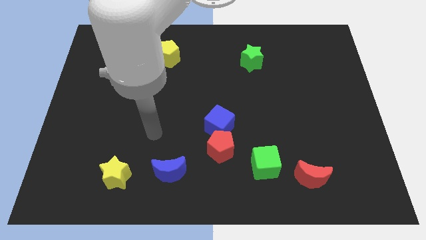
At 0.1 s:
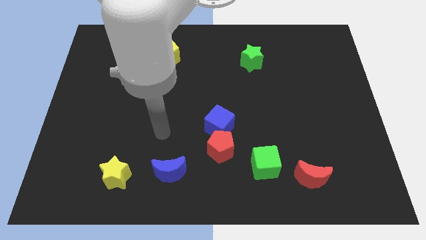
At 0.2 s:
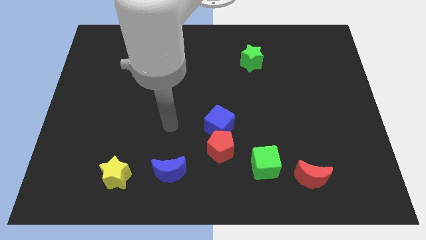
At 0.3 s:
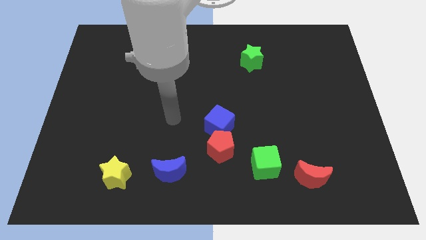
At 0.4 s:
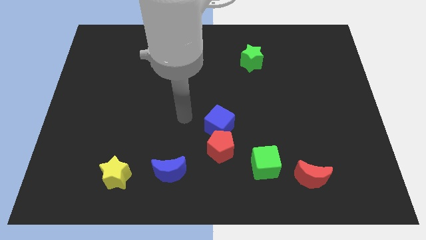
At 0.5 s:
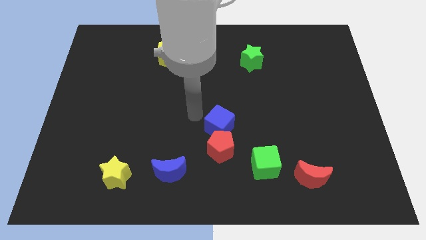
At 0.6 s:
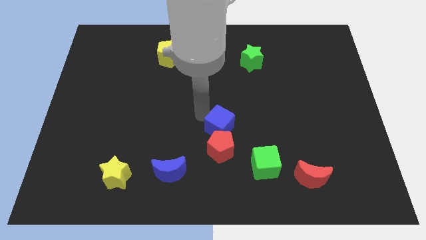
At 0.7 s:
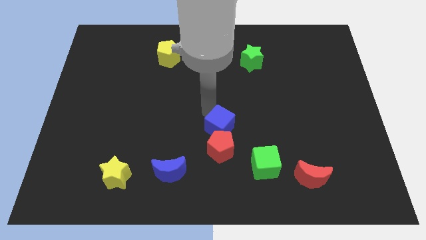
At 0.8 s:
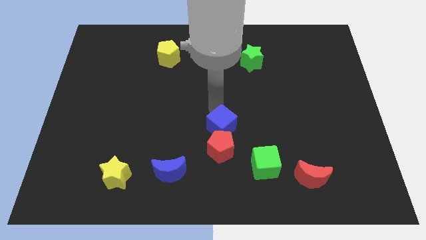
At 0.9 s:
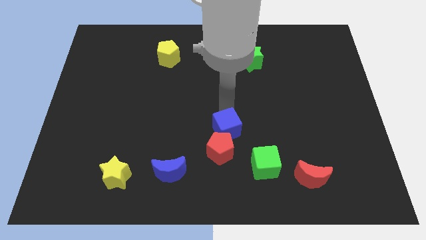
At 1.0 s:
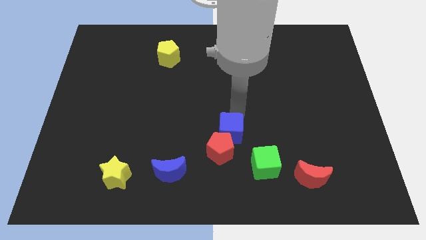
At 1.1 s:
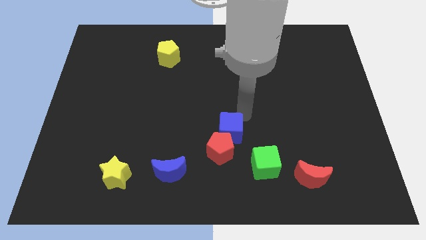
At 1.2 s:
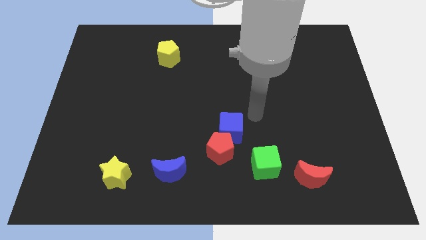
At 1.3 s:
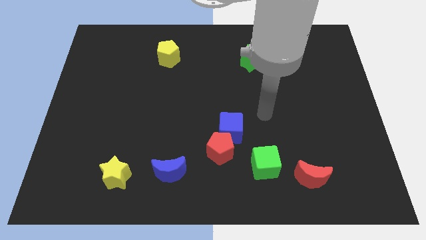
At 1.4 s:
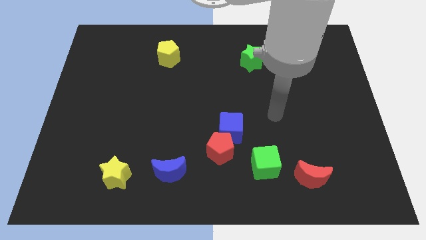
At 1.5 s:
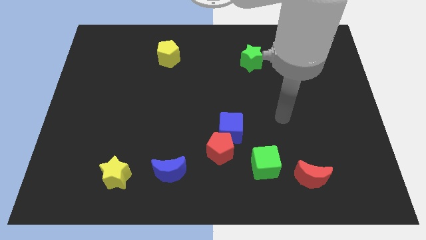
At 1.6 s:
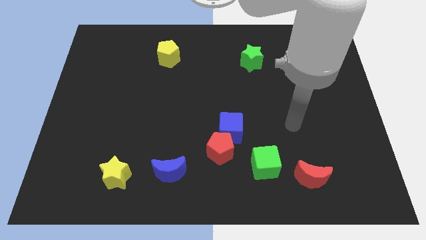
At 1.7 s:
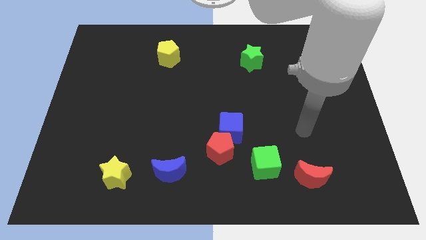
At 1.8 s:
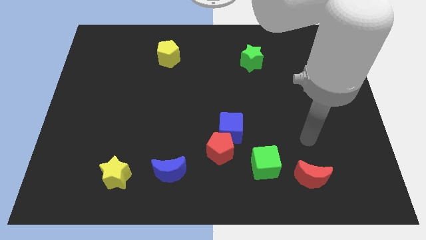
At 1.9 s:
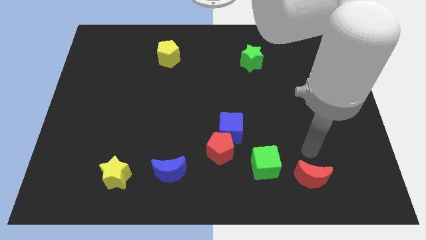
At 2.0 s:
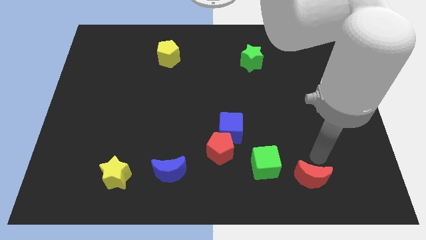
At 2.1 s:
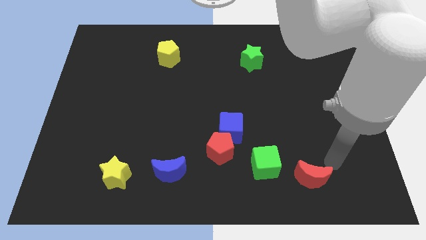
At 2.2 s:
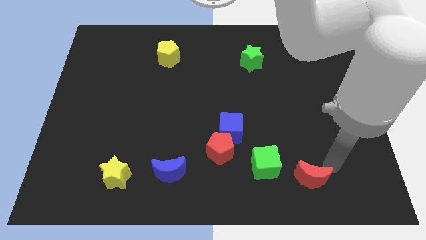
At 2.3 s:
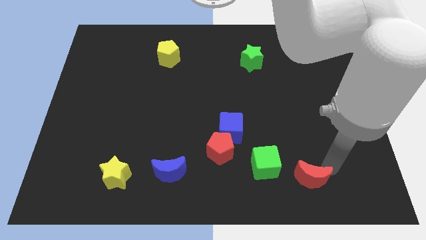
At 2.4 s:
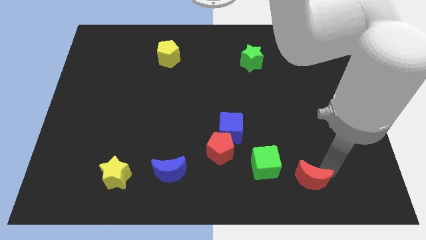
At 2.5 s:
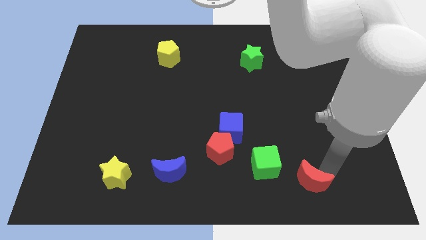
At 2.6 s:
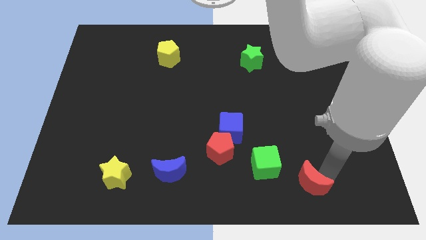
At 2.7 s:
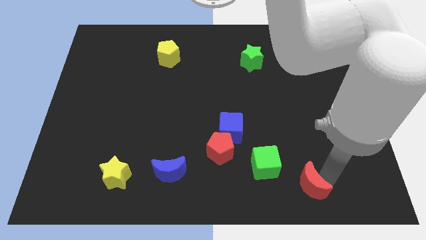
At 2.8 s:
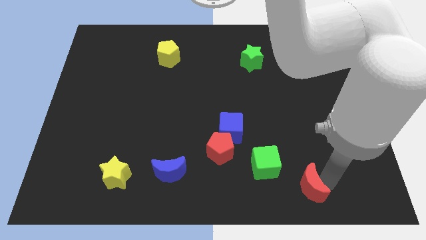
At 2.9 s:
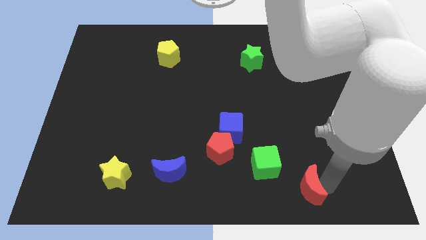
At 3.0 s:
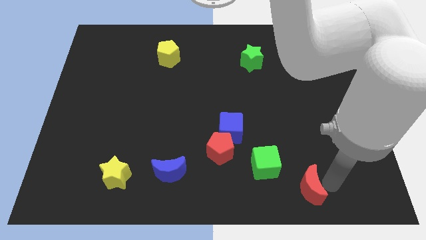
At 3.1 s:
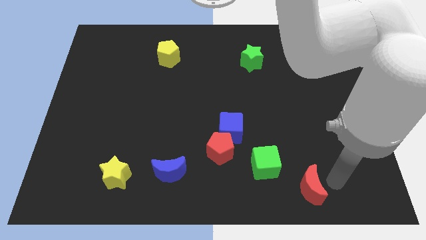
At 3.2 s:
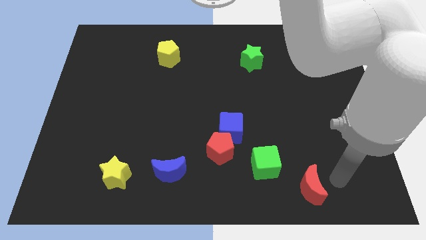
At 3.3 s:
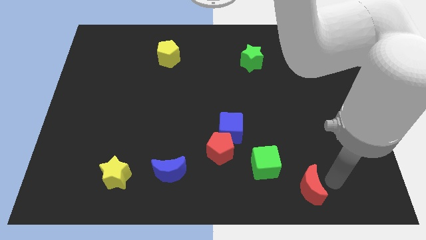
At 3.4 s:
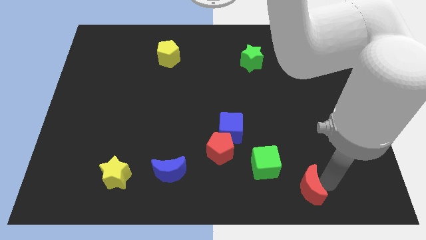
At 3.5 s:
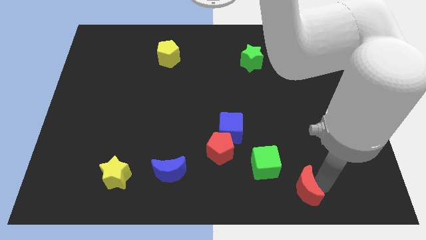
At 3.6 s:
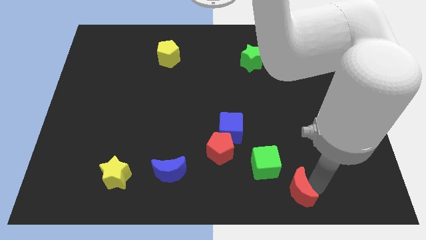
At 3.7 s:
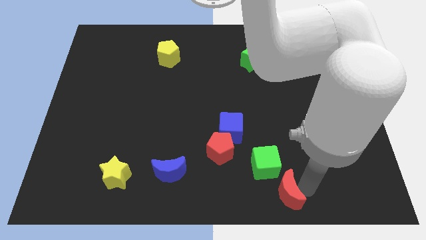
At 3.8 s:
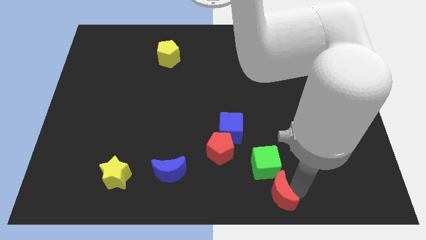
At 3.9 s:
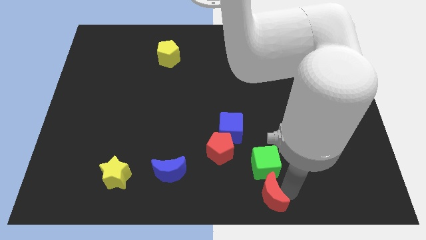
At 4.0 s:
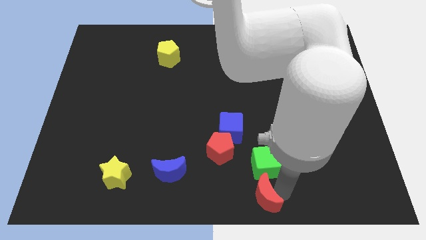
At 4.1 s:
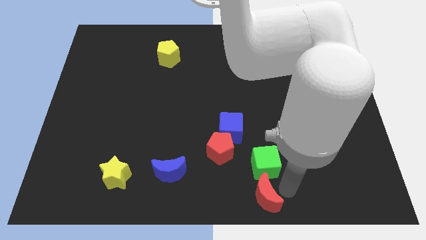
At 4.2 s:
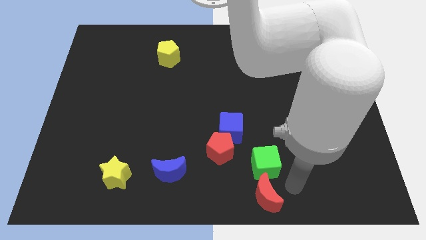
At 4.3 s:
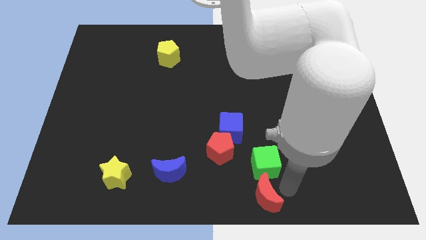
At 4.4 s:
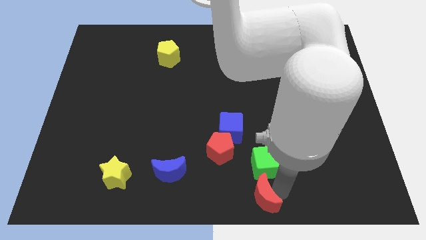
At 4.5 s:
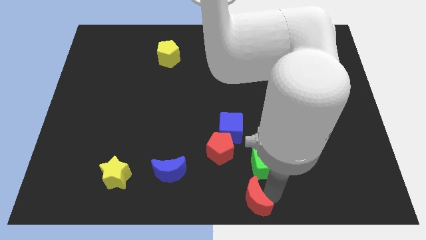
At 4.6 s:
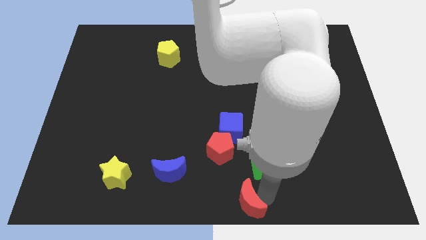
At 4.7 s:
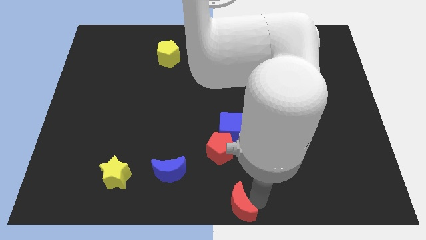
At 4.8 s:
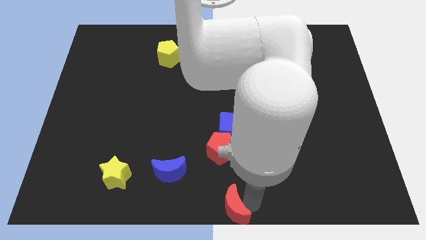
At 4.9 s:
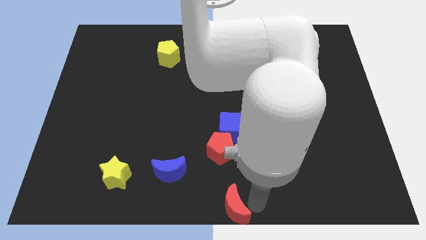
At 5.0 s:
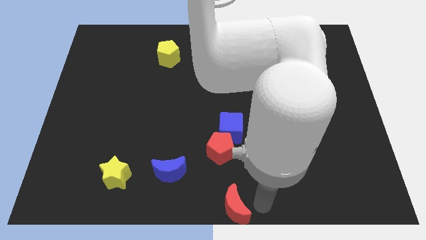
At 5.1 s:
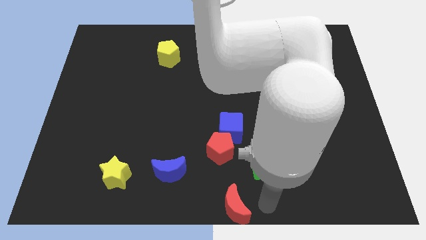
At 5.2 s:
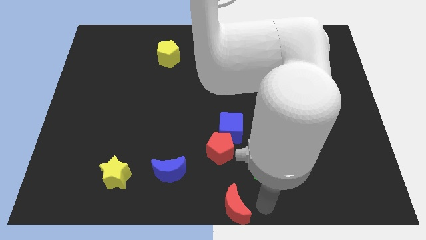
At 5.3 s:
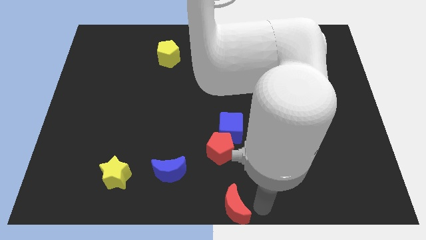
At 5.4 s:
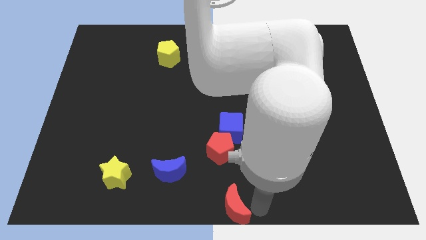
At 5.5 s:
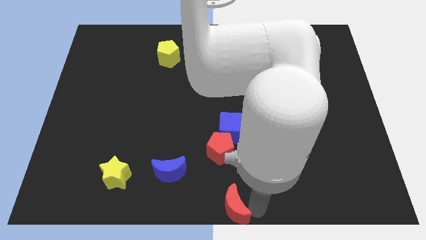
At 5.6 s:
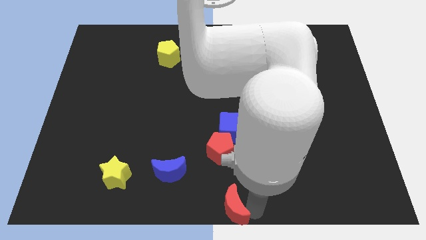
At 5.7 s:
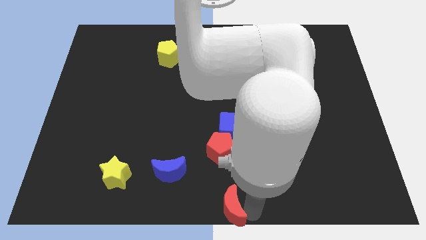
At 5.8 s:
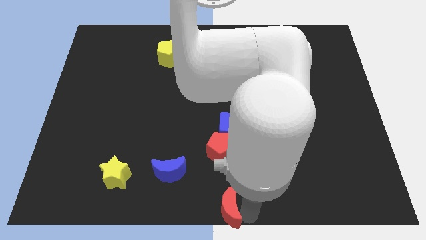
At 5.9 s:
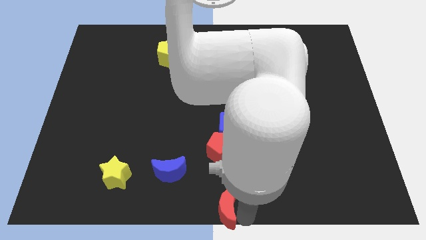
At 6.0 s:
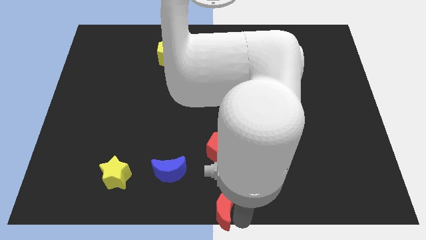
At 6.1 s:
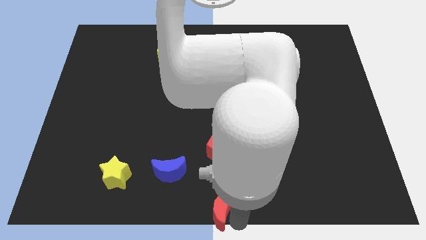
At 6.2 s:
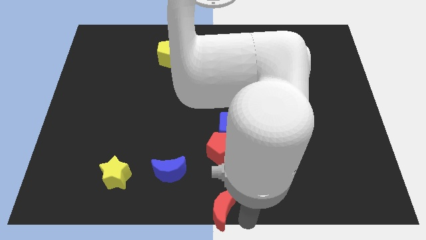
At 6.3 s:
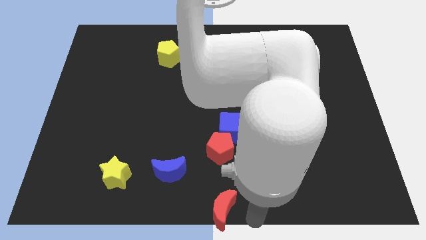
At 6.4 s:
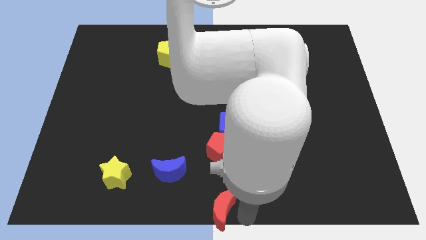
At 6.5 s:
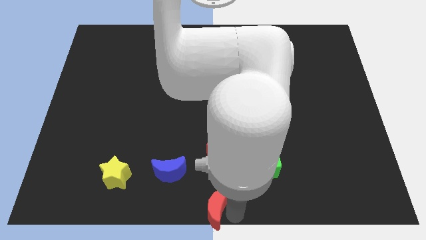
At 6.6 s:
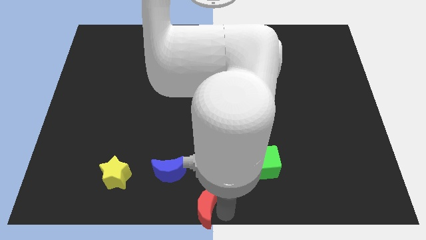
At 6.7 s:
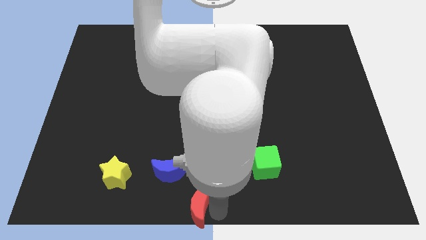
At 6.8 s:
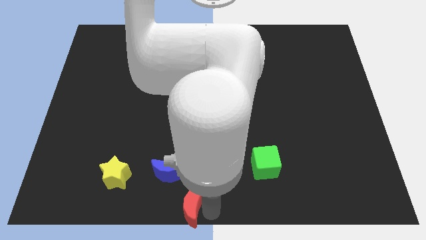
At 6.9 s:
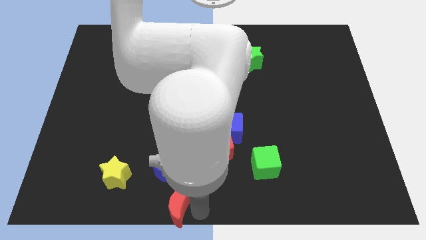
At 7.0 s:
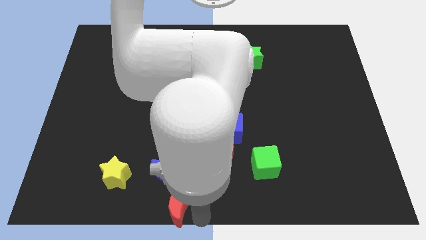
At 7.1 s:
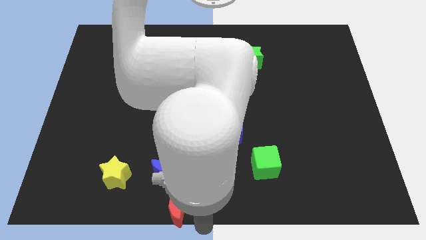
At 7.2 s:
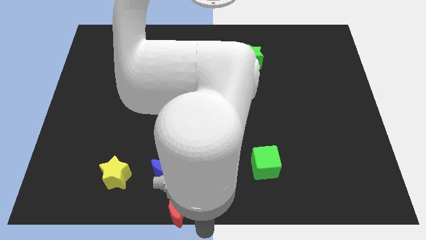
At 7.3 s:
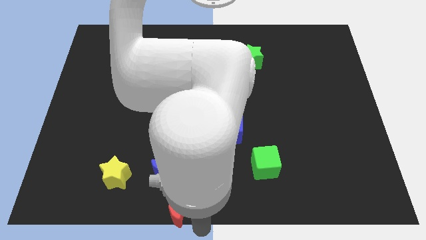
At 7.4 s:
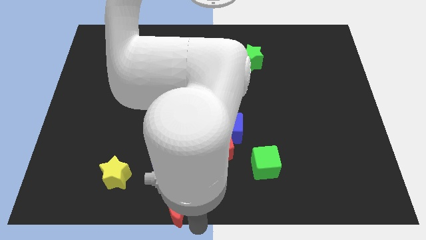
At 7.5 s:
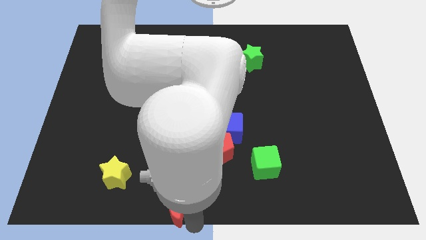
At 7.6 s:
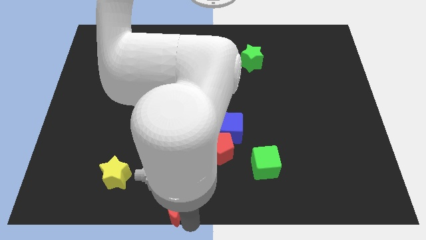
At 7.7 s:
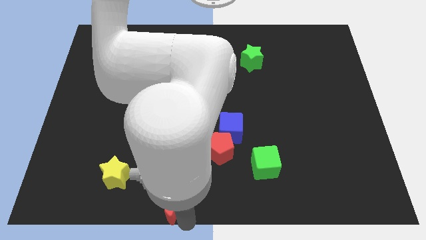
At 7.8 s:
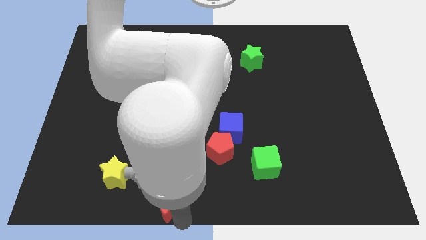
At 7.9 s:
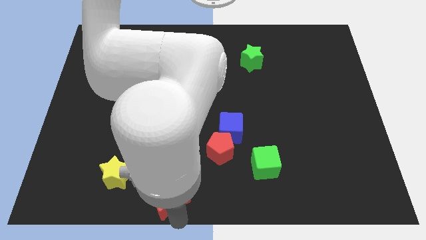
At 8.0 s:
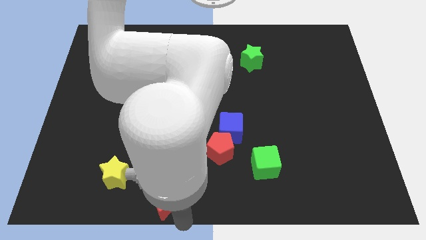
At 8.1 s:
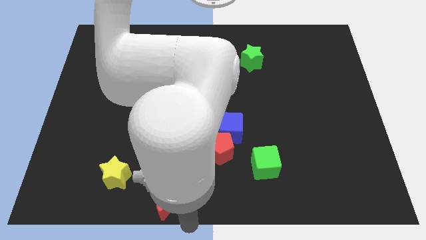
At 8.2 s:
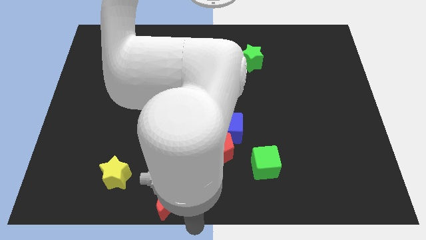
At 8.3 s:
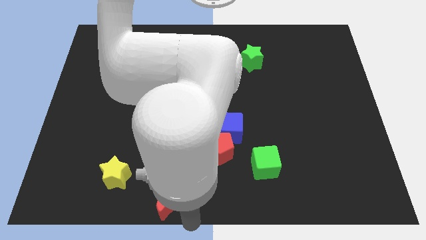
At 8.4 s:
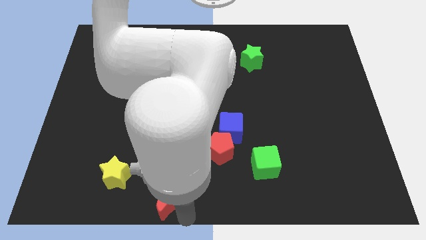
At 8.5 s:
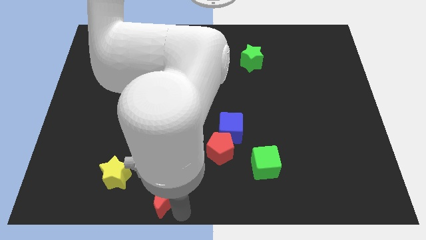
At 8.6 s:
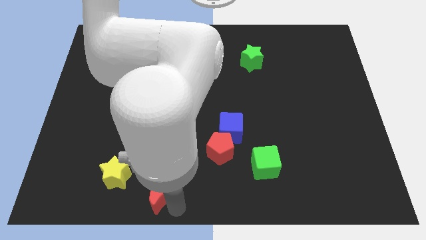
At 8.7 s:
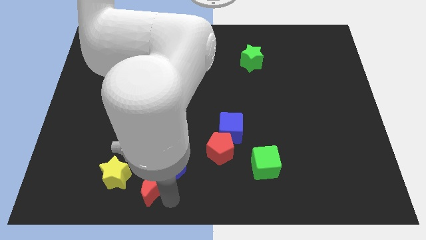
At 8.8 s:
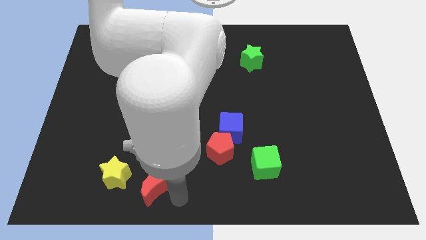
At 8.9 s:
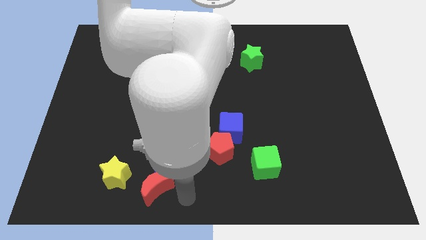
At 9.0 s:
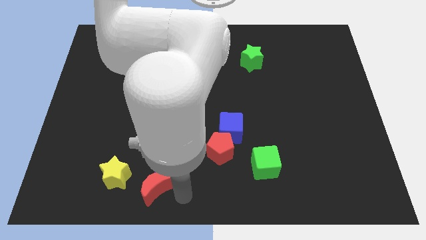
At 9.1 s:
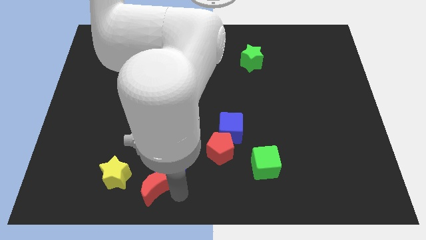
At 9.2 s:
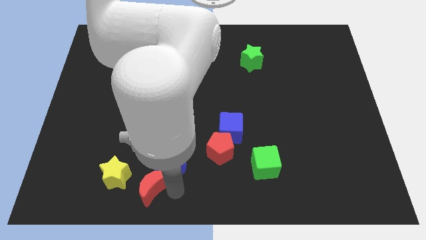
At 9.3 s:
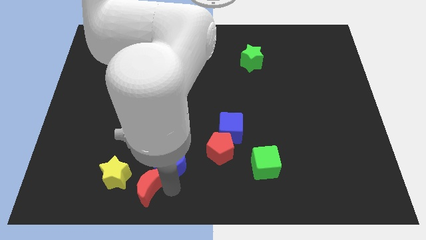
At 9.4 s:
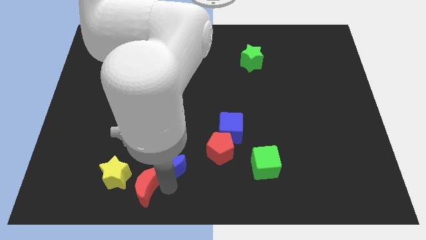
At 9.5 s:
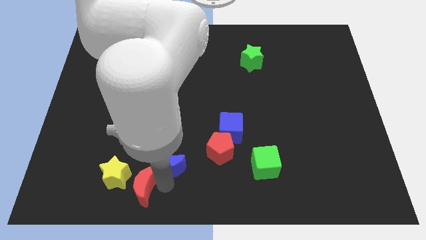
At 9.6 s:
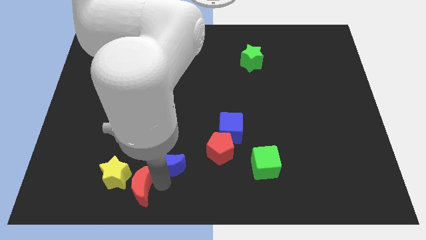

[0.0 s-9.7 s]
put the red moon close to the yellow star
